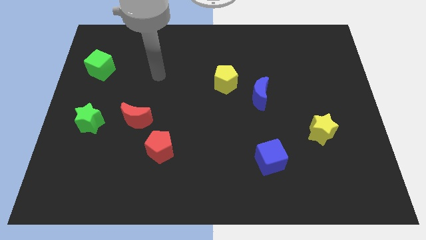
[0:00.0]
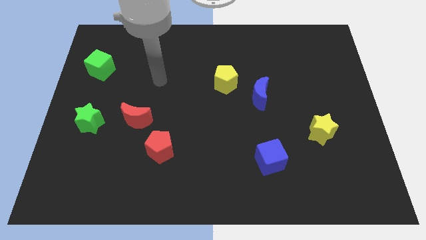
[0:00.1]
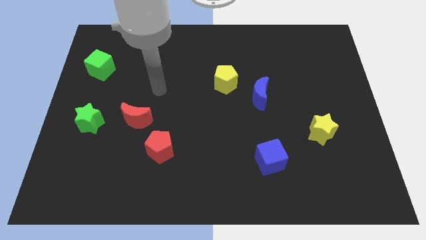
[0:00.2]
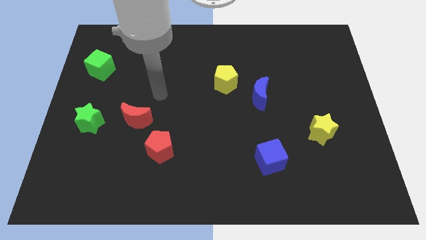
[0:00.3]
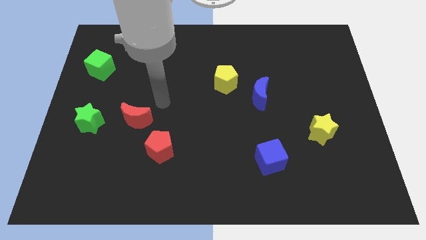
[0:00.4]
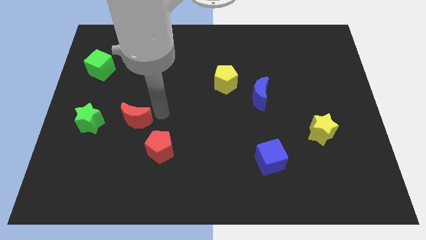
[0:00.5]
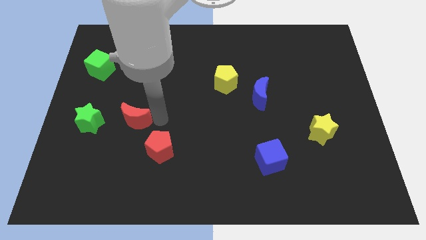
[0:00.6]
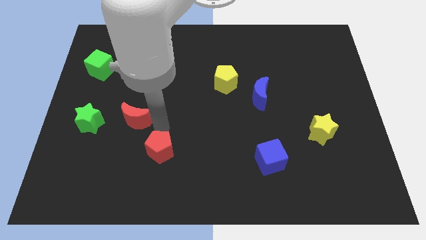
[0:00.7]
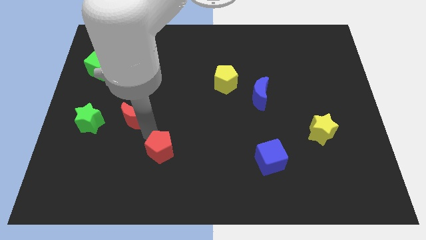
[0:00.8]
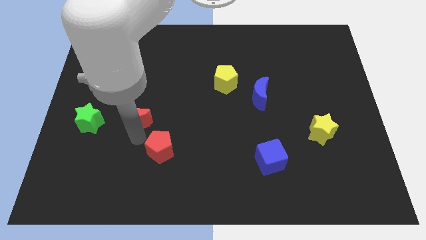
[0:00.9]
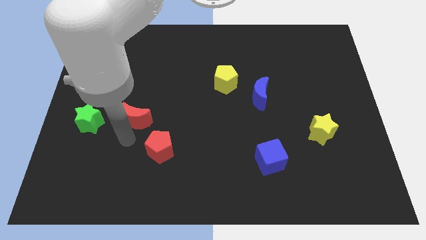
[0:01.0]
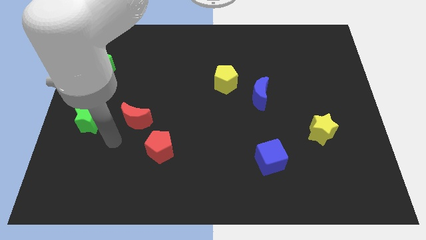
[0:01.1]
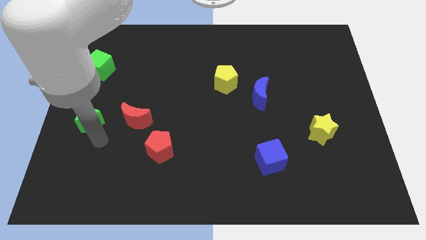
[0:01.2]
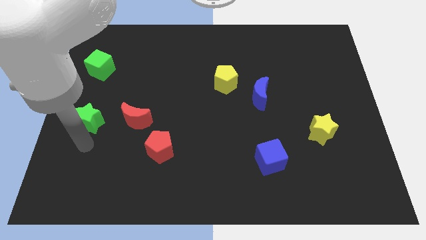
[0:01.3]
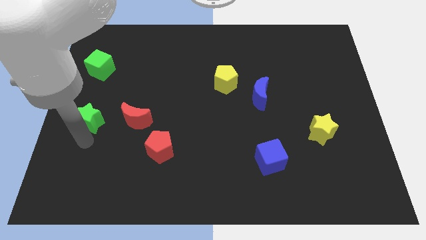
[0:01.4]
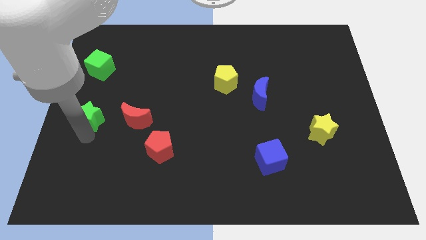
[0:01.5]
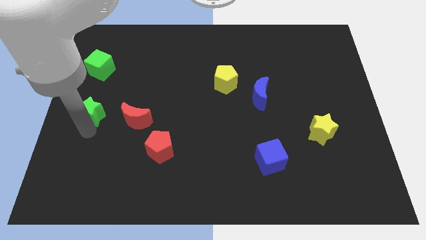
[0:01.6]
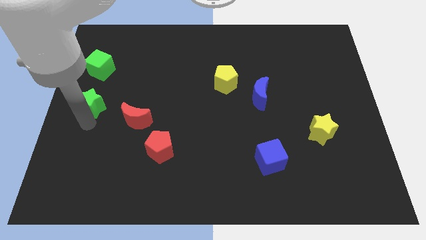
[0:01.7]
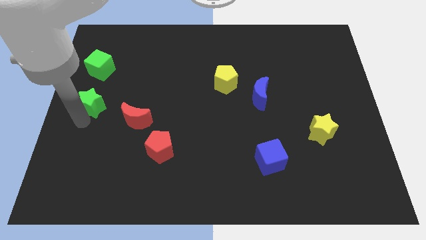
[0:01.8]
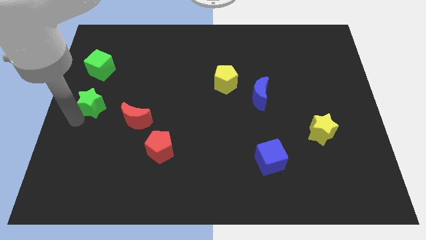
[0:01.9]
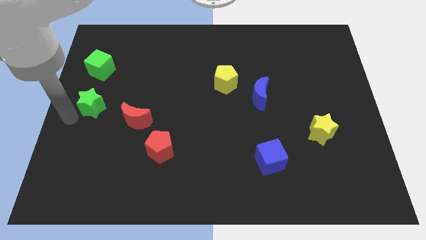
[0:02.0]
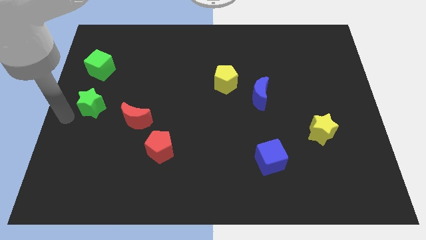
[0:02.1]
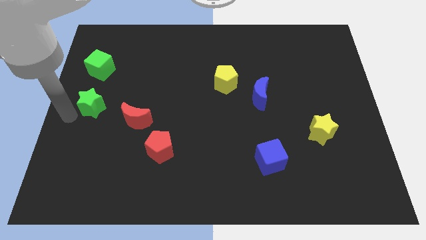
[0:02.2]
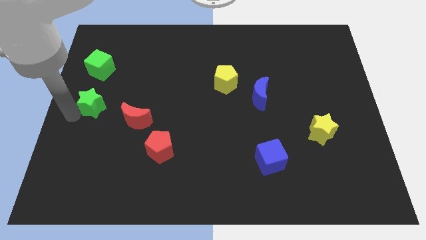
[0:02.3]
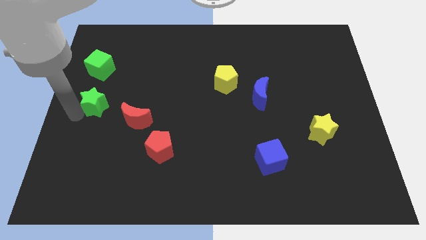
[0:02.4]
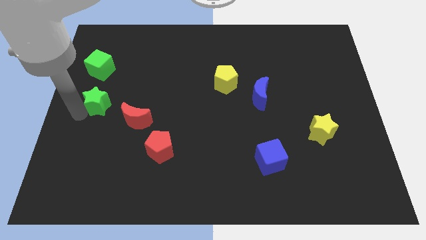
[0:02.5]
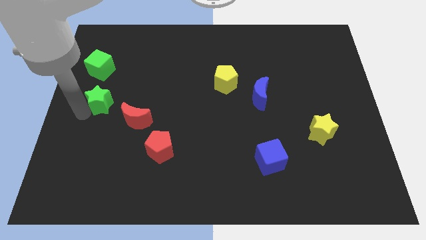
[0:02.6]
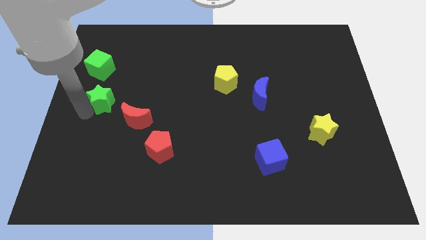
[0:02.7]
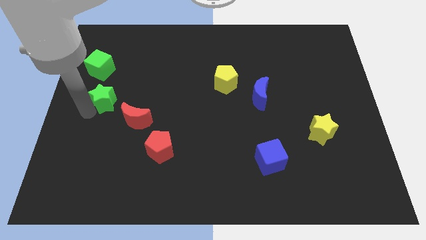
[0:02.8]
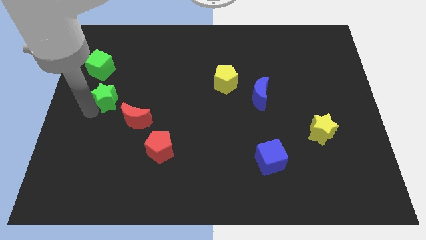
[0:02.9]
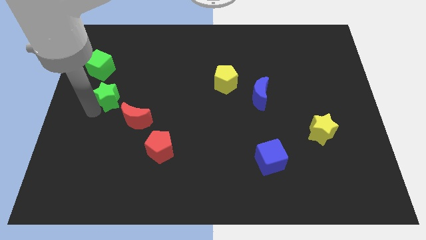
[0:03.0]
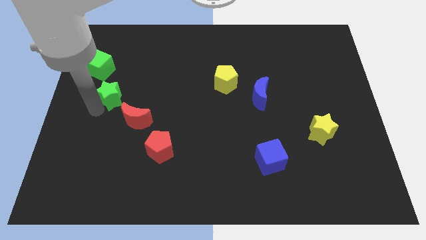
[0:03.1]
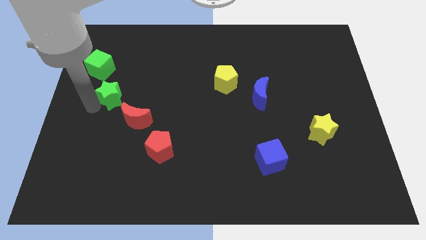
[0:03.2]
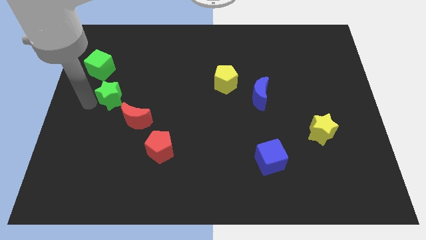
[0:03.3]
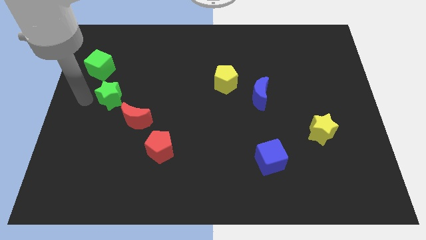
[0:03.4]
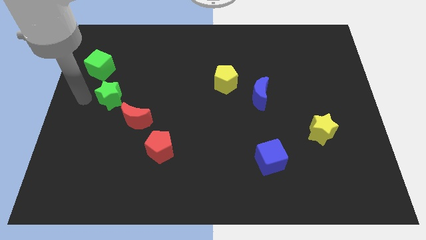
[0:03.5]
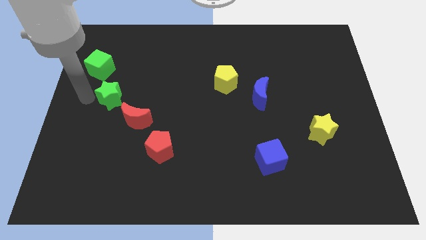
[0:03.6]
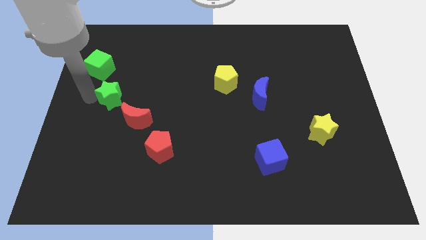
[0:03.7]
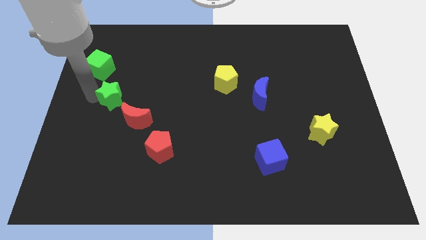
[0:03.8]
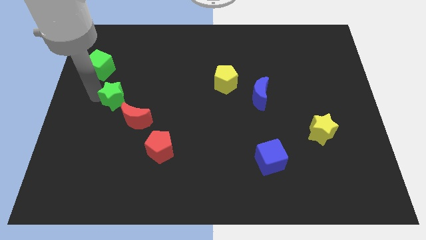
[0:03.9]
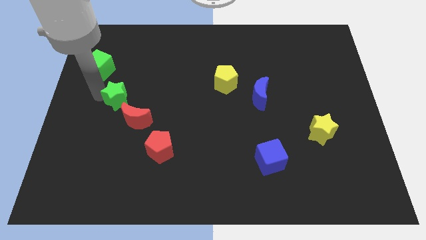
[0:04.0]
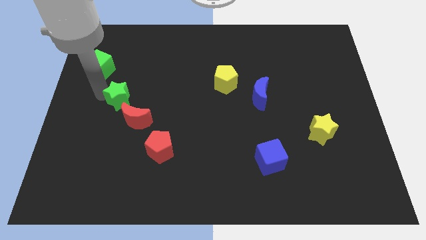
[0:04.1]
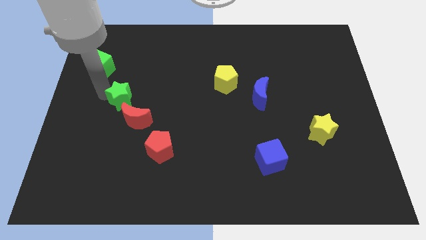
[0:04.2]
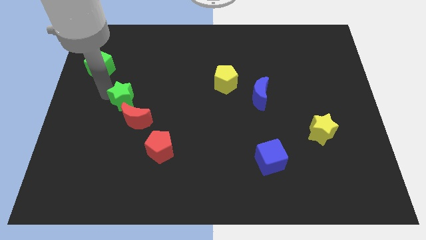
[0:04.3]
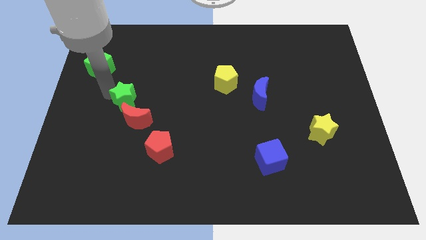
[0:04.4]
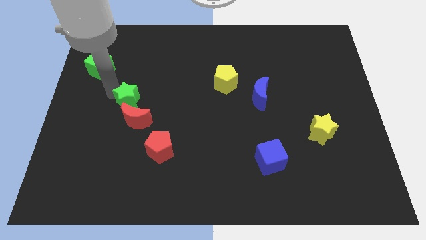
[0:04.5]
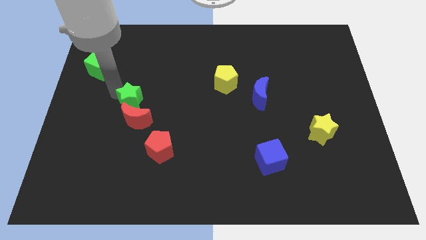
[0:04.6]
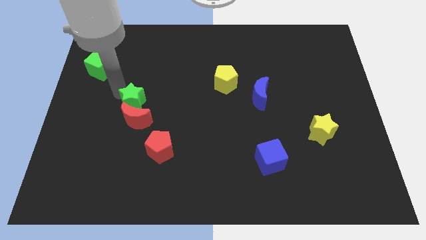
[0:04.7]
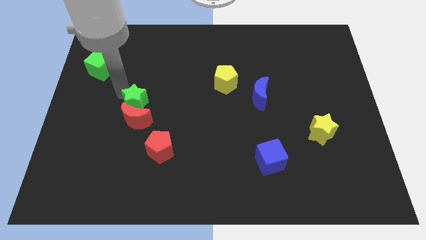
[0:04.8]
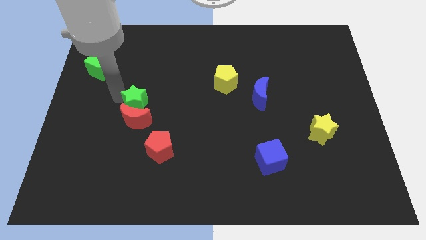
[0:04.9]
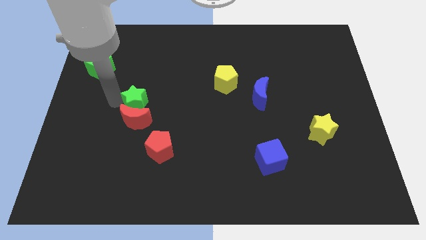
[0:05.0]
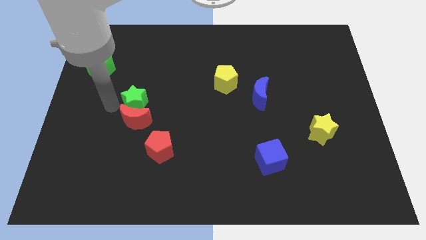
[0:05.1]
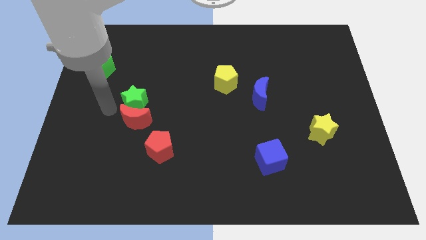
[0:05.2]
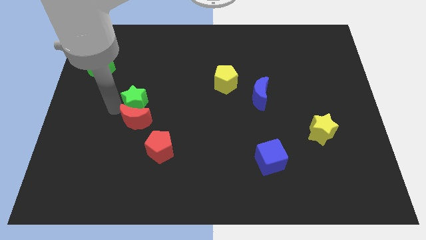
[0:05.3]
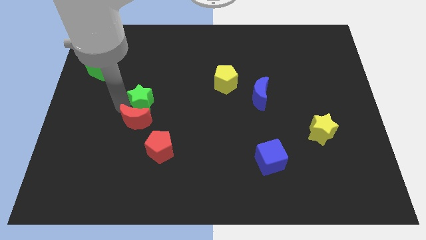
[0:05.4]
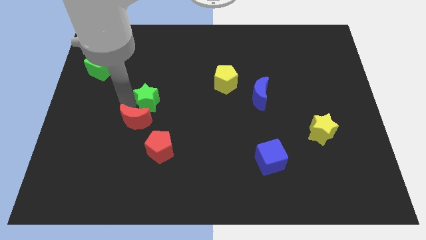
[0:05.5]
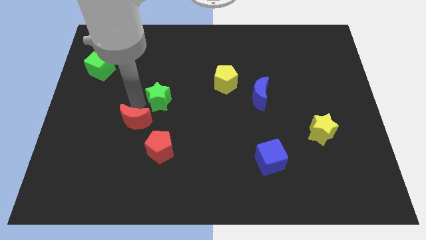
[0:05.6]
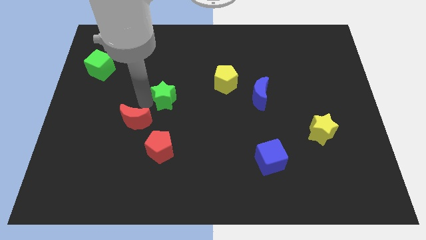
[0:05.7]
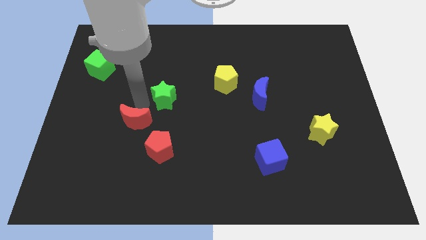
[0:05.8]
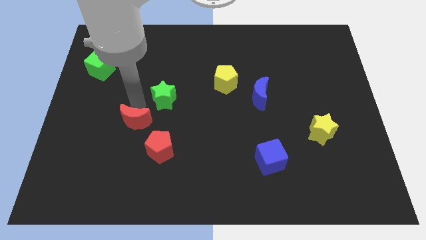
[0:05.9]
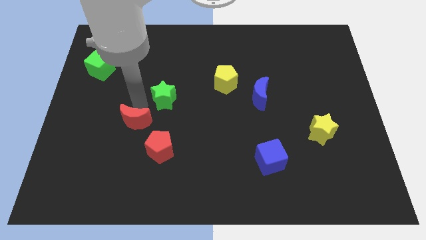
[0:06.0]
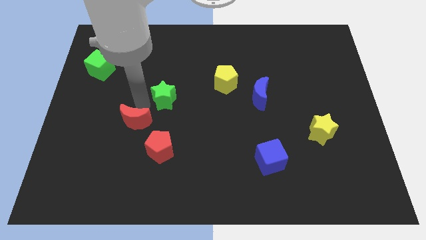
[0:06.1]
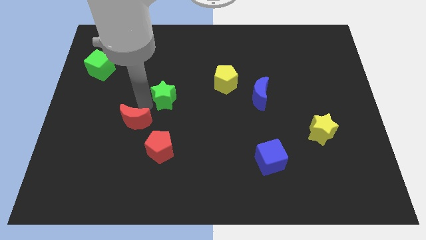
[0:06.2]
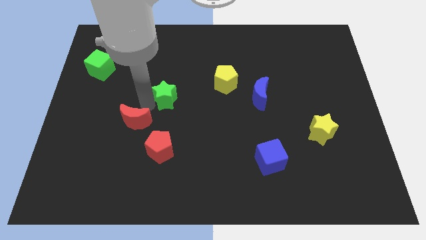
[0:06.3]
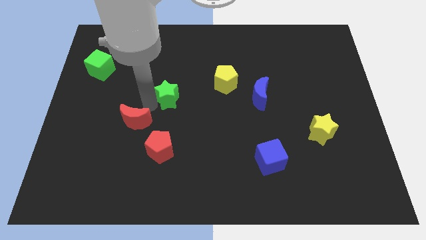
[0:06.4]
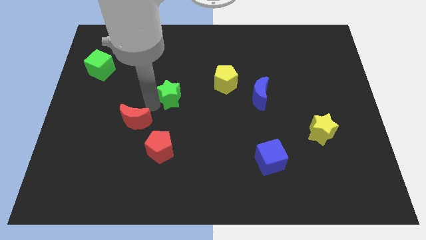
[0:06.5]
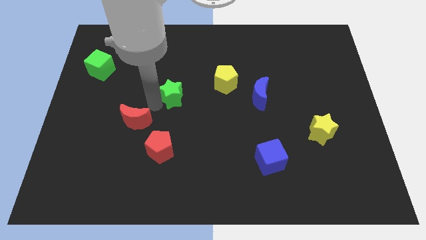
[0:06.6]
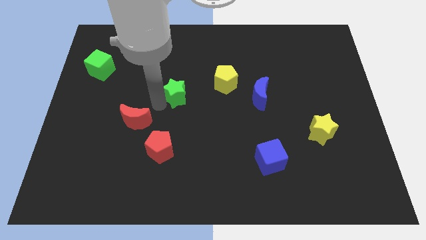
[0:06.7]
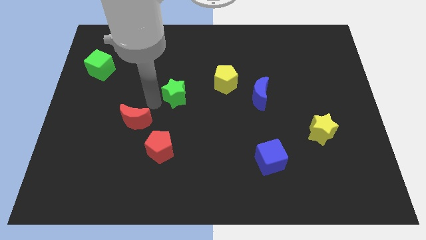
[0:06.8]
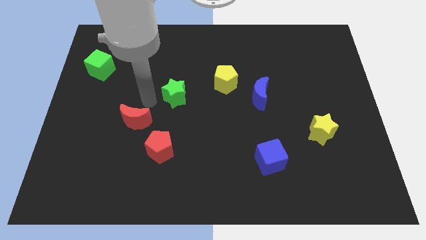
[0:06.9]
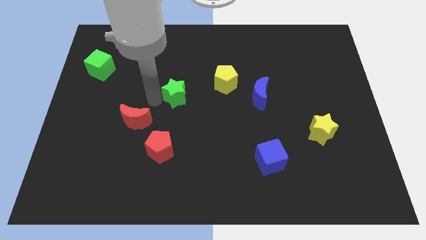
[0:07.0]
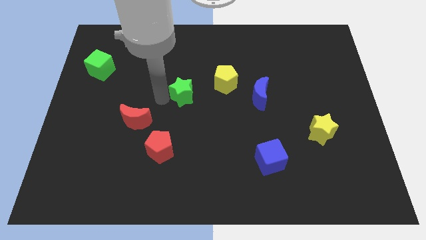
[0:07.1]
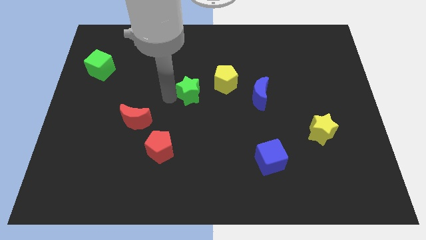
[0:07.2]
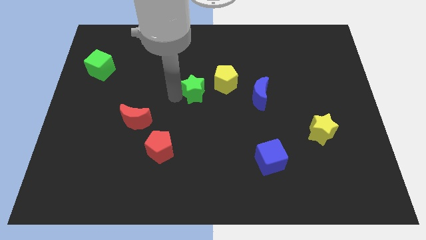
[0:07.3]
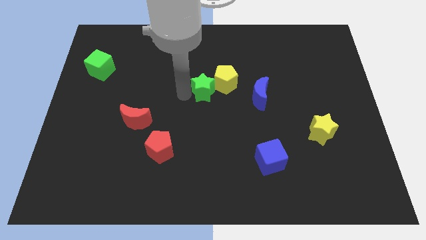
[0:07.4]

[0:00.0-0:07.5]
move the green star to the yellow pentagon
